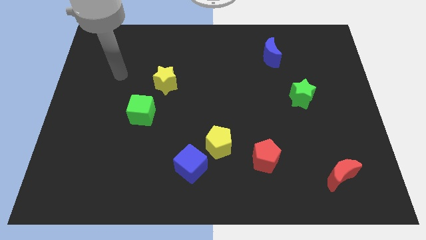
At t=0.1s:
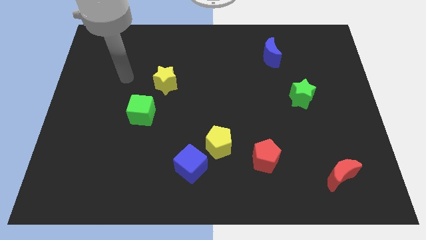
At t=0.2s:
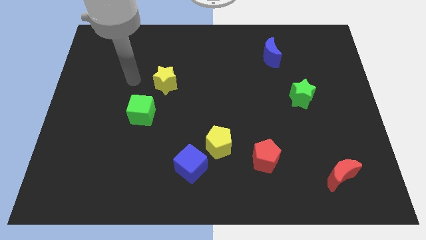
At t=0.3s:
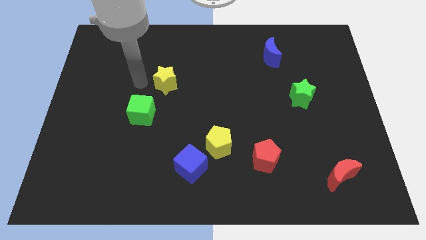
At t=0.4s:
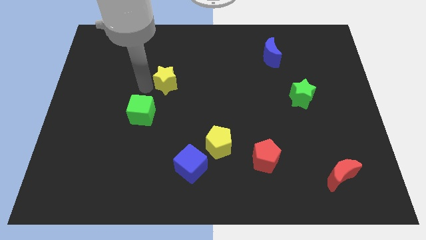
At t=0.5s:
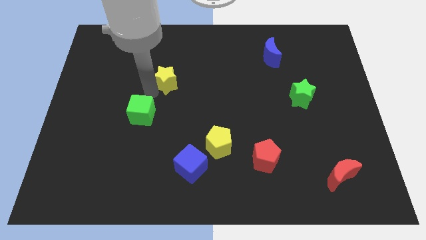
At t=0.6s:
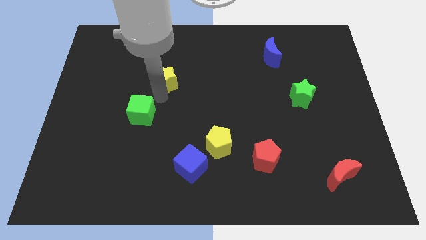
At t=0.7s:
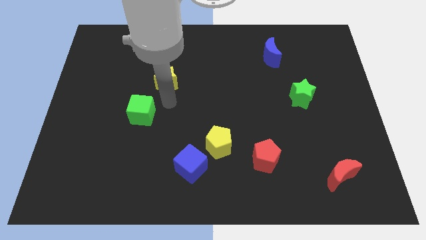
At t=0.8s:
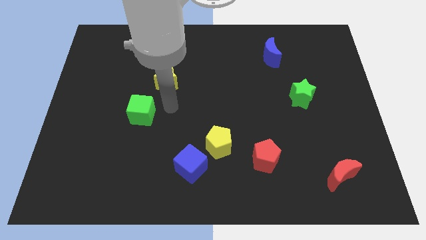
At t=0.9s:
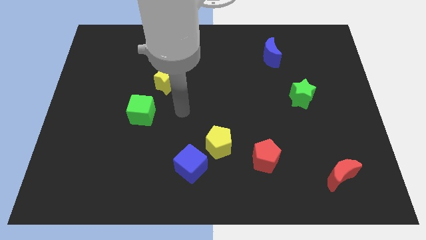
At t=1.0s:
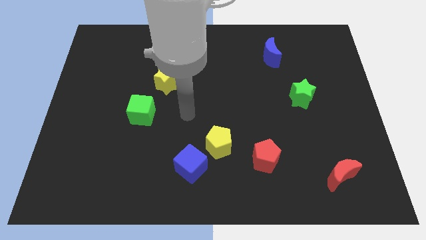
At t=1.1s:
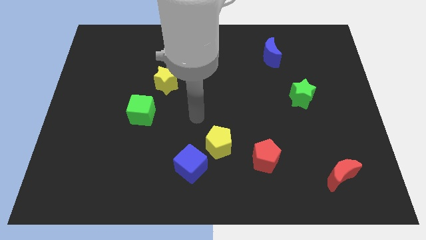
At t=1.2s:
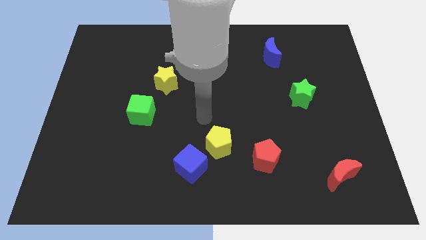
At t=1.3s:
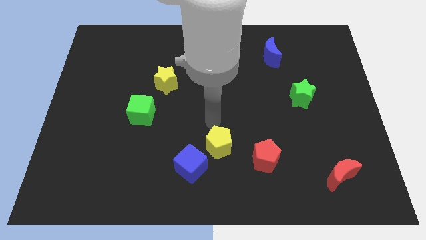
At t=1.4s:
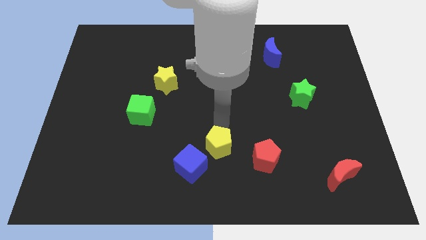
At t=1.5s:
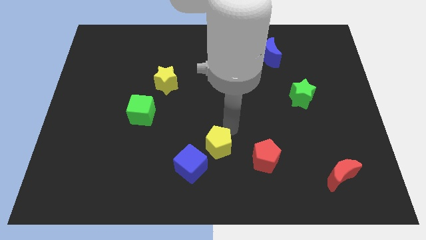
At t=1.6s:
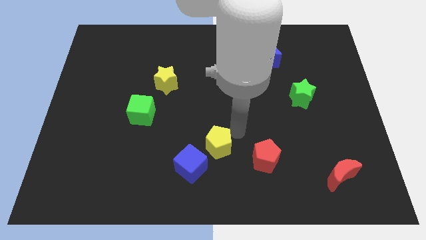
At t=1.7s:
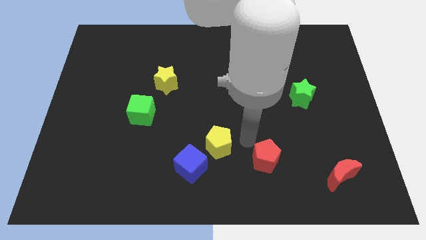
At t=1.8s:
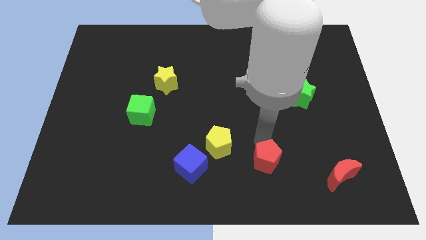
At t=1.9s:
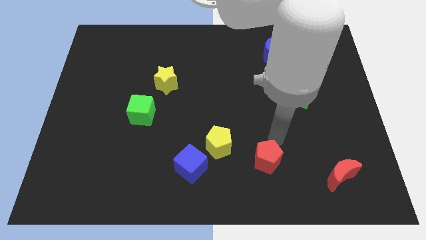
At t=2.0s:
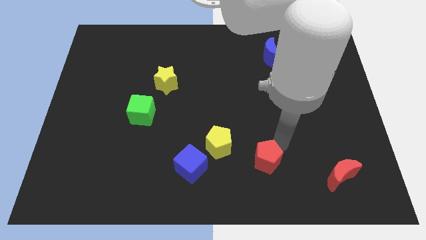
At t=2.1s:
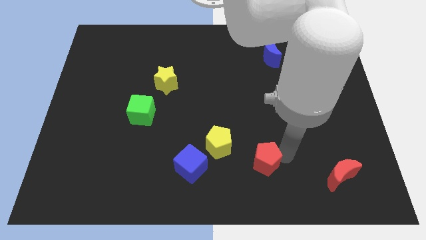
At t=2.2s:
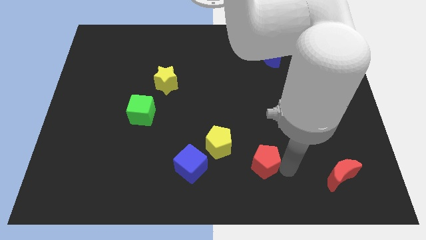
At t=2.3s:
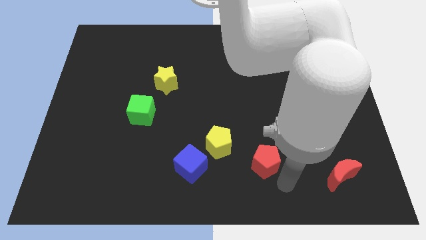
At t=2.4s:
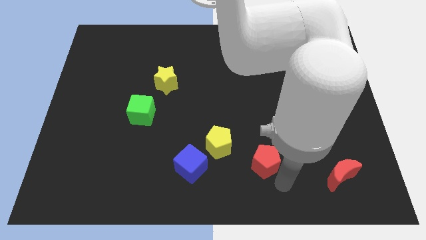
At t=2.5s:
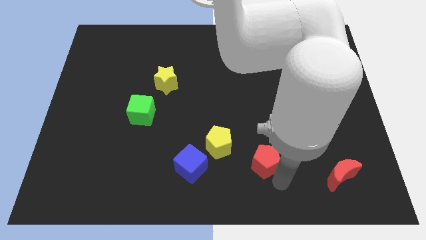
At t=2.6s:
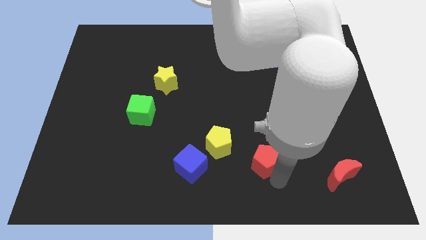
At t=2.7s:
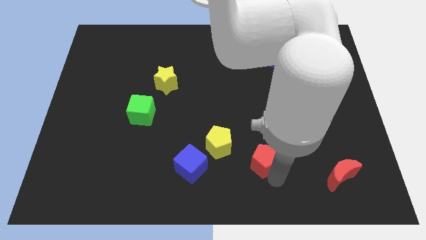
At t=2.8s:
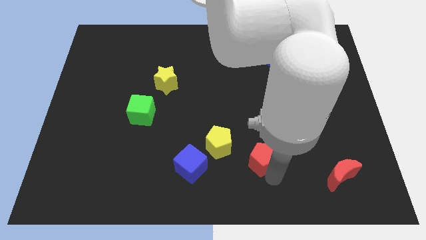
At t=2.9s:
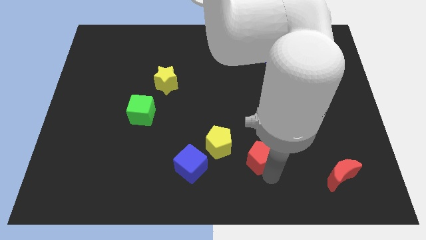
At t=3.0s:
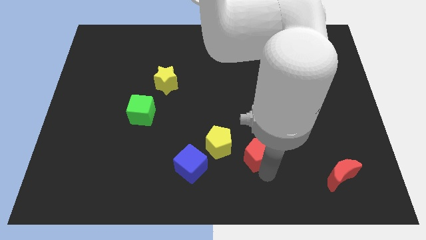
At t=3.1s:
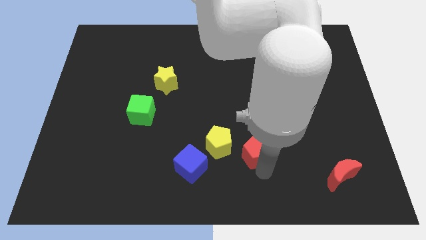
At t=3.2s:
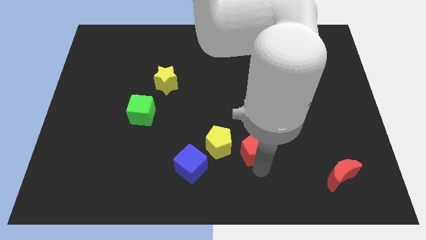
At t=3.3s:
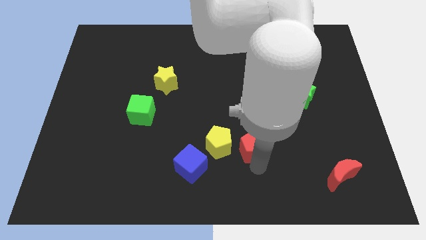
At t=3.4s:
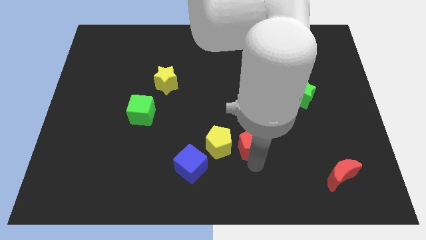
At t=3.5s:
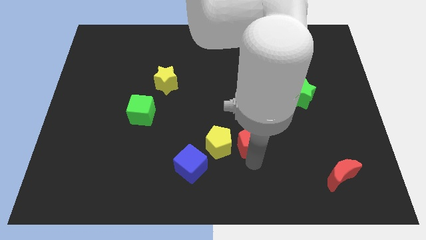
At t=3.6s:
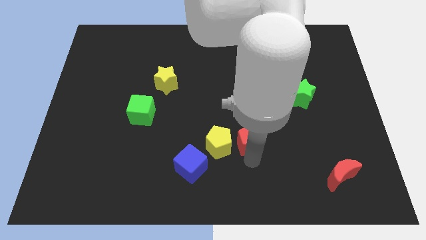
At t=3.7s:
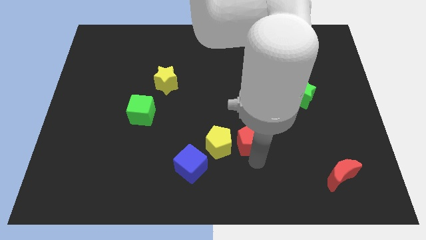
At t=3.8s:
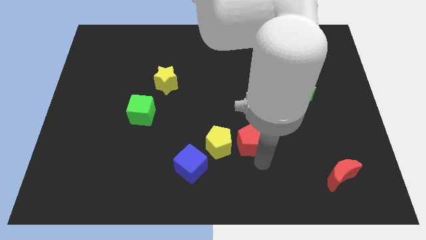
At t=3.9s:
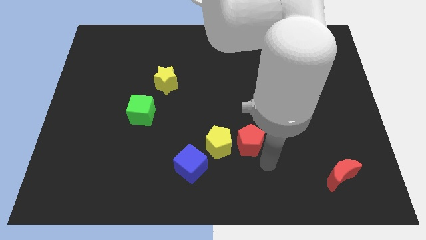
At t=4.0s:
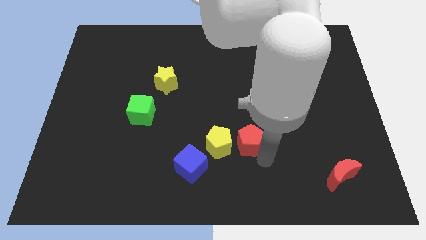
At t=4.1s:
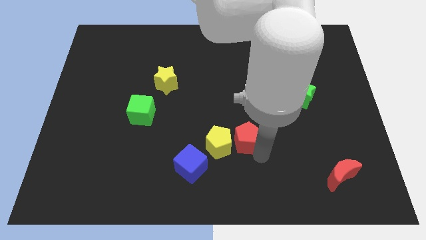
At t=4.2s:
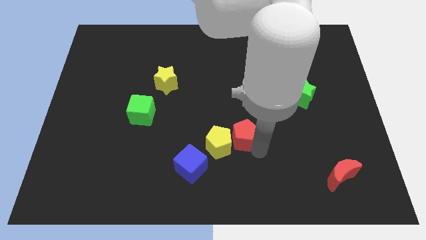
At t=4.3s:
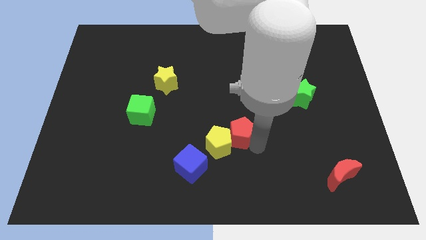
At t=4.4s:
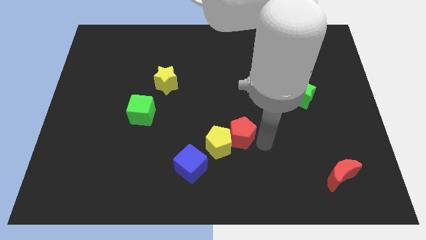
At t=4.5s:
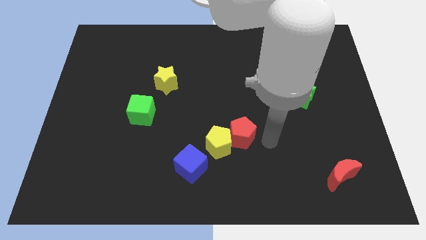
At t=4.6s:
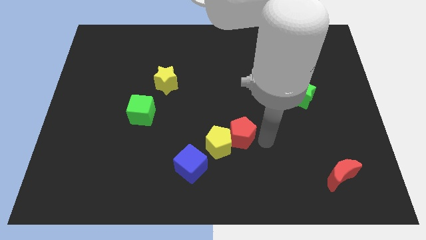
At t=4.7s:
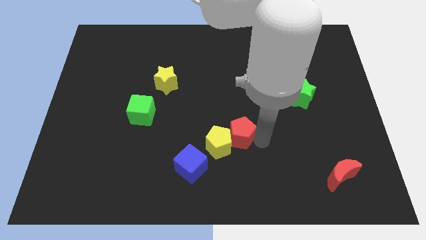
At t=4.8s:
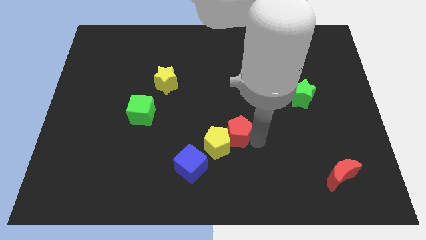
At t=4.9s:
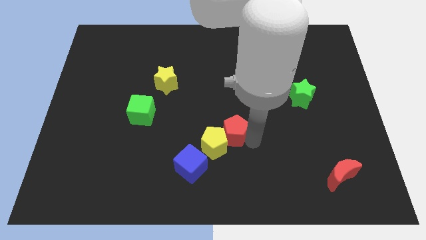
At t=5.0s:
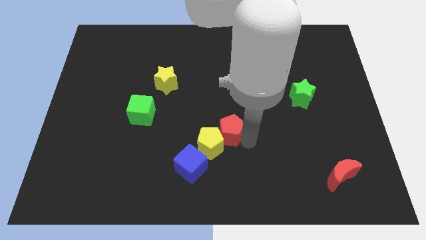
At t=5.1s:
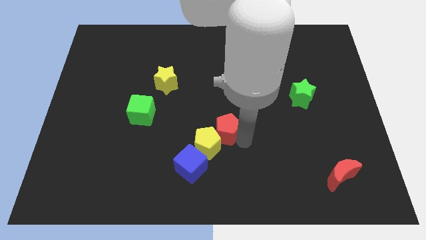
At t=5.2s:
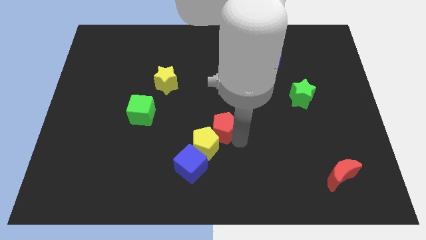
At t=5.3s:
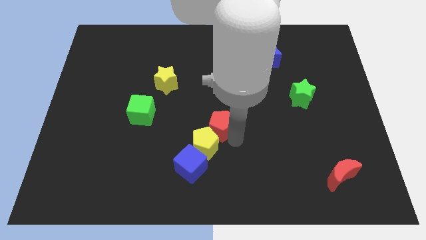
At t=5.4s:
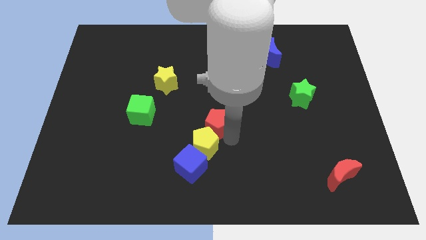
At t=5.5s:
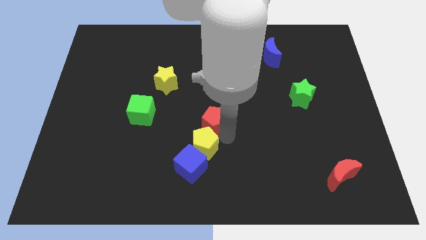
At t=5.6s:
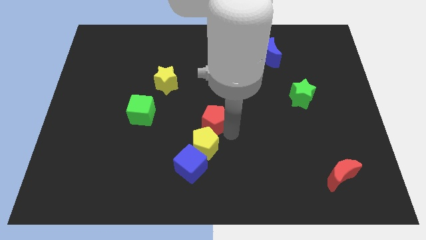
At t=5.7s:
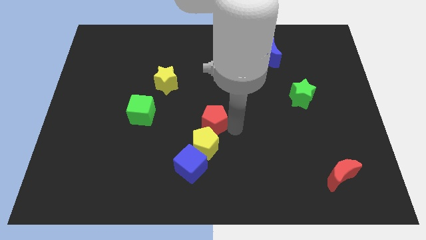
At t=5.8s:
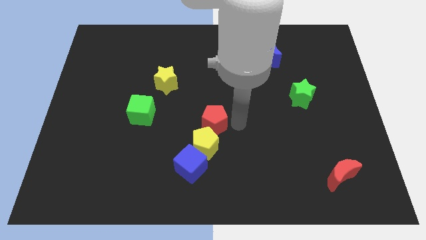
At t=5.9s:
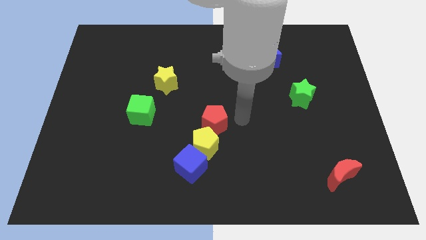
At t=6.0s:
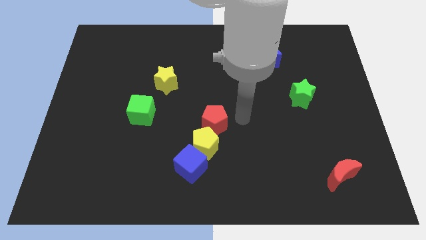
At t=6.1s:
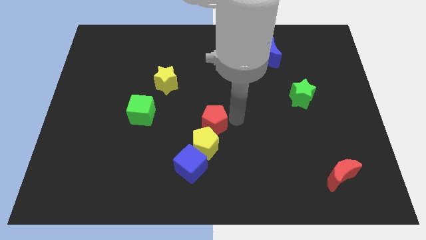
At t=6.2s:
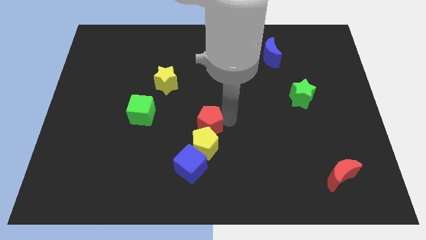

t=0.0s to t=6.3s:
move the red pentagon diagonally up and to the left of the yellow pentagon
